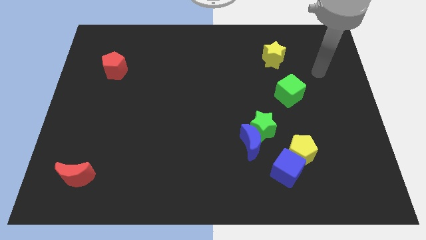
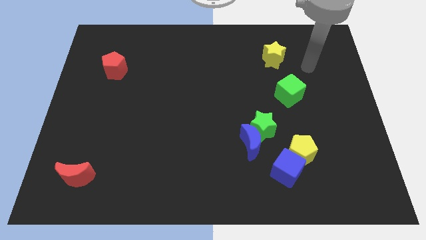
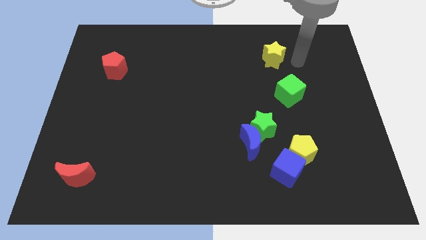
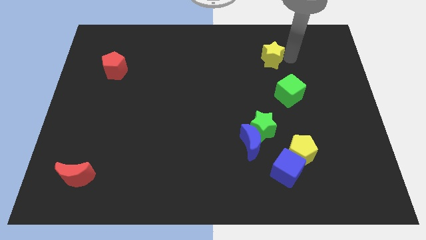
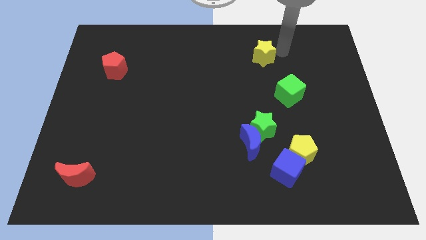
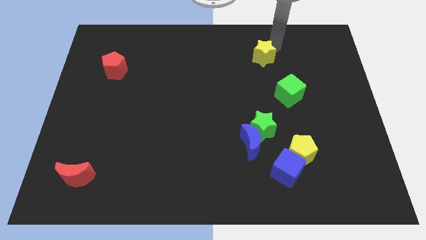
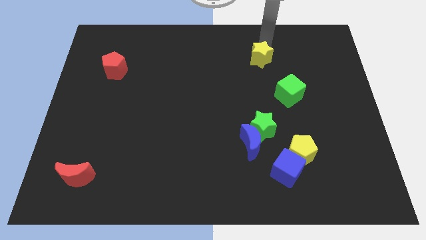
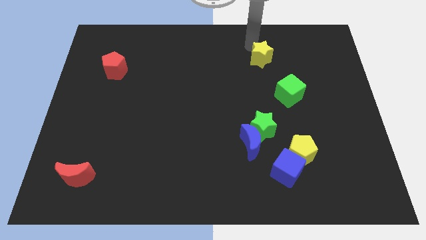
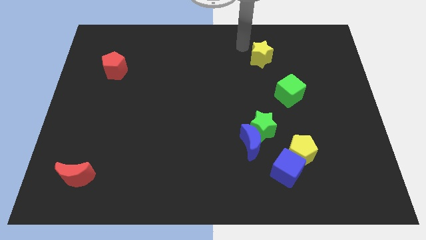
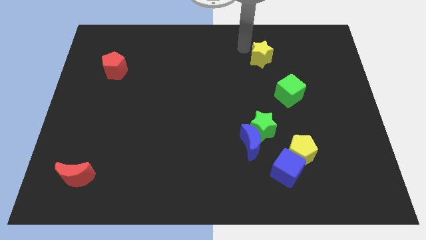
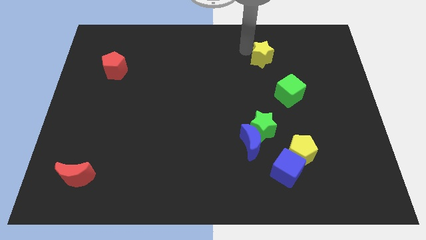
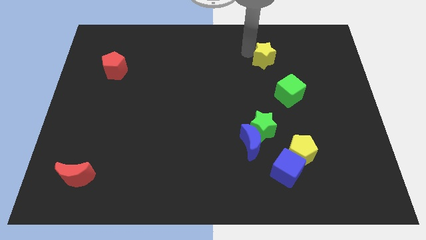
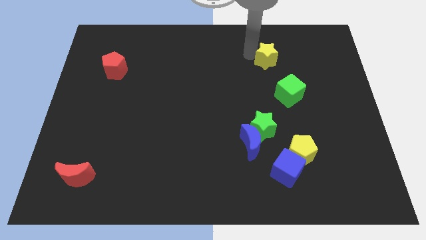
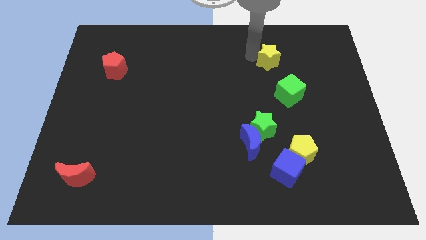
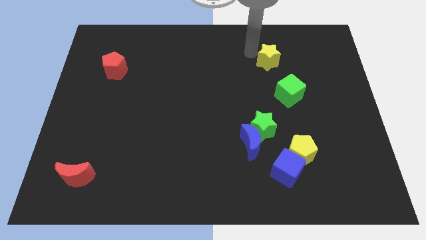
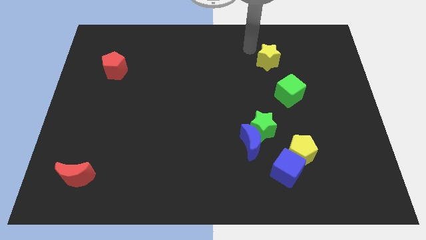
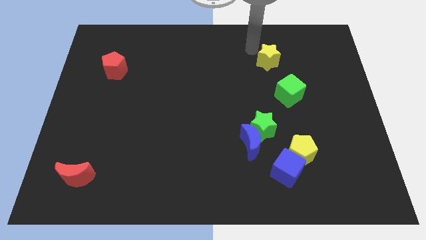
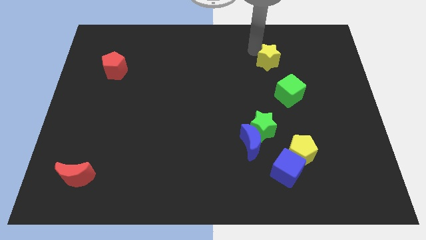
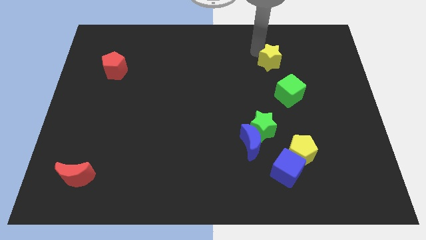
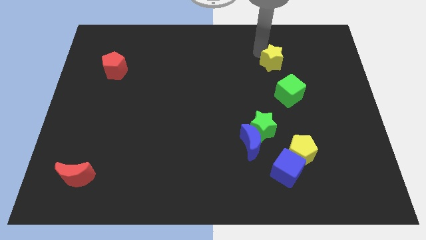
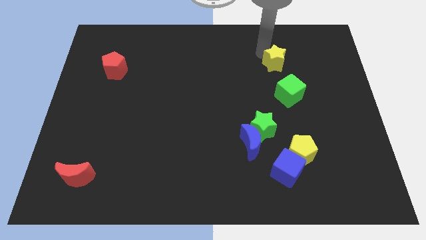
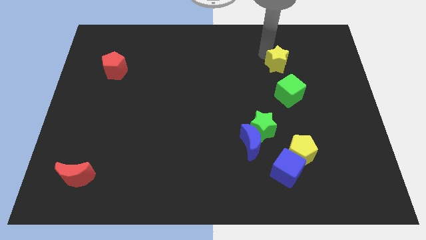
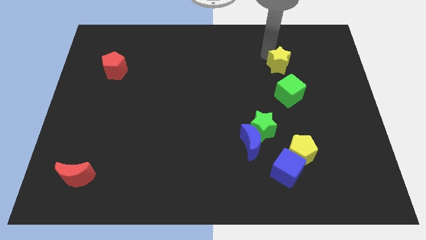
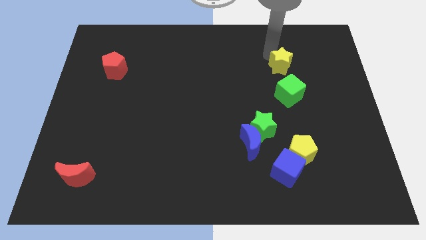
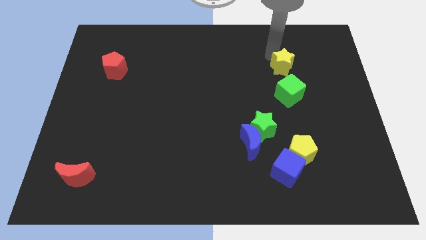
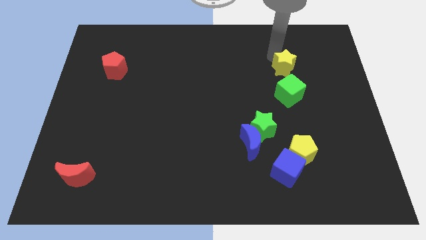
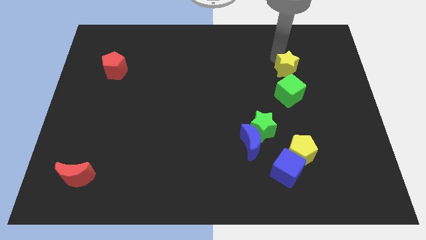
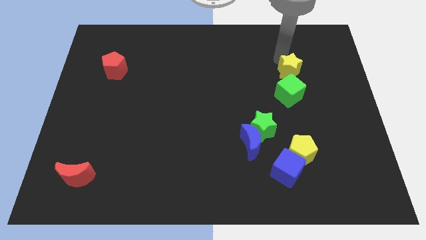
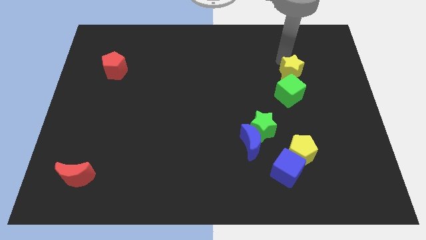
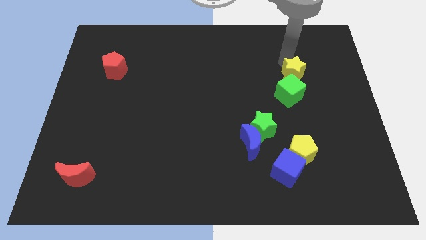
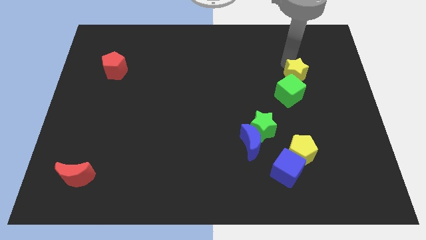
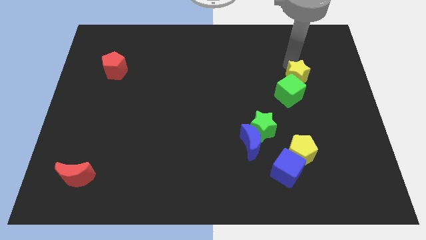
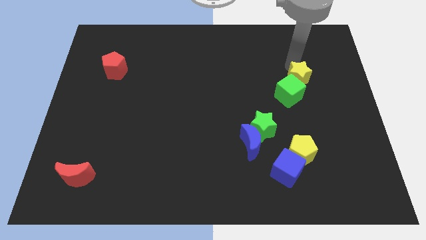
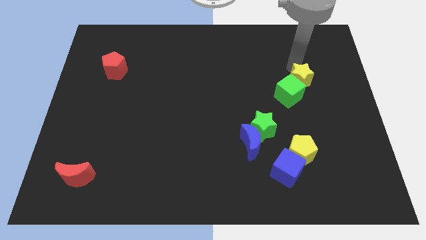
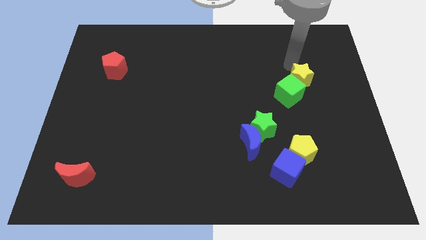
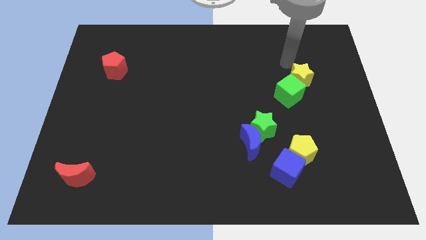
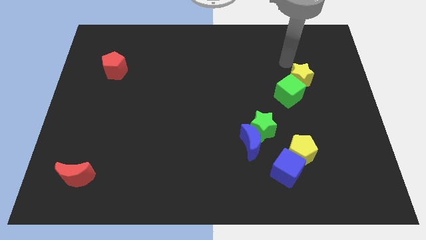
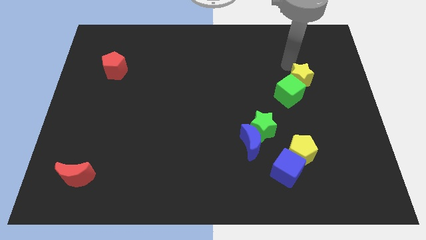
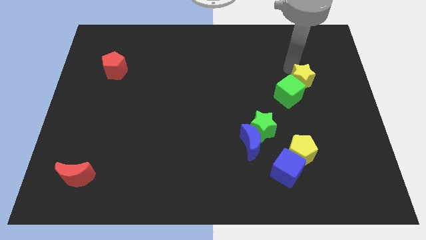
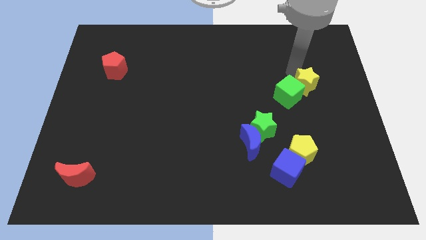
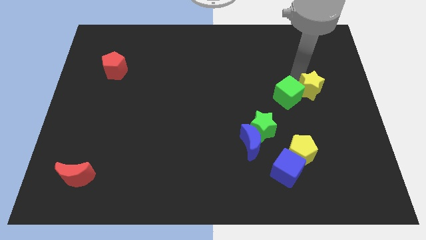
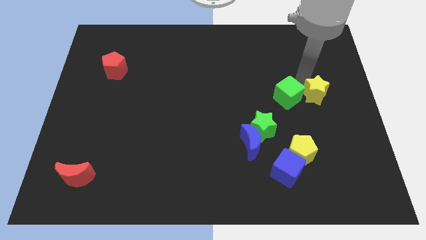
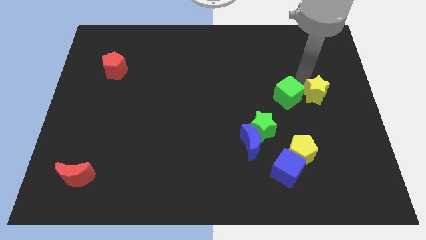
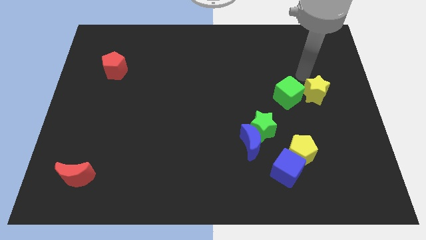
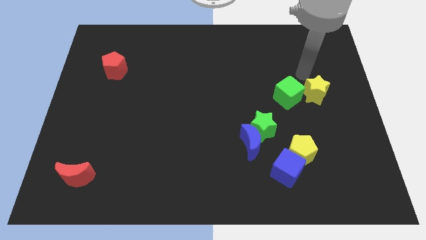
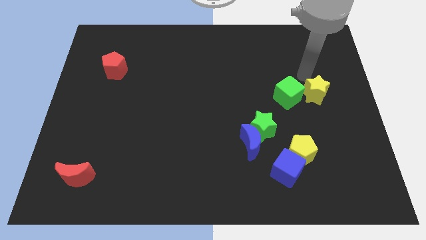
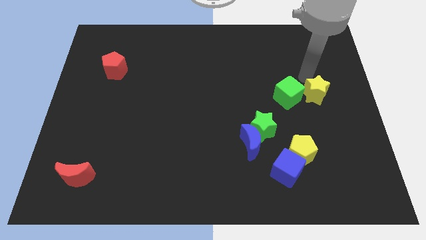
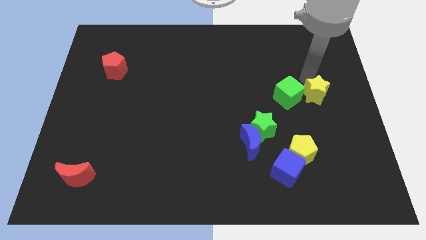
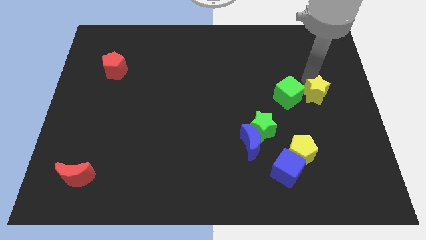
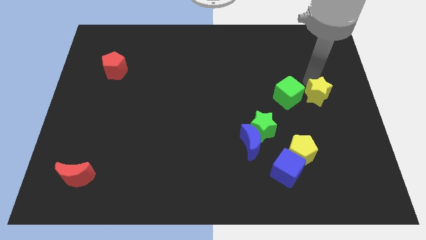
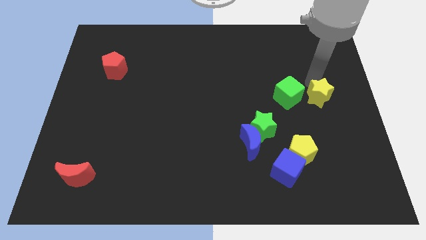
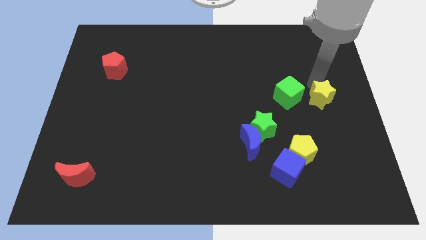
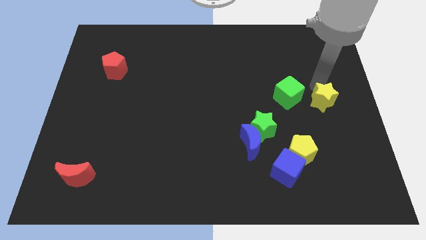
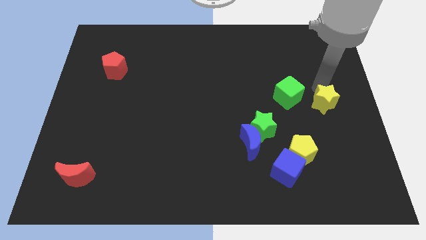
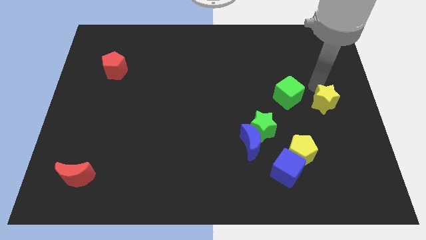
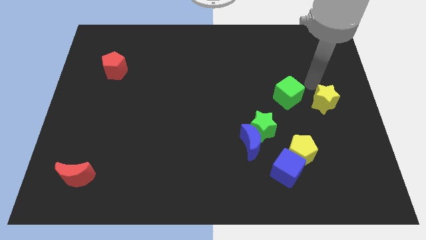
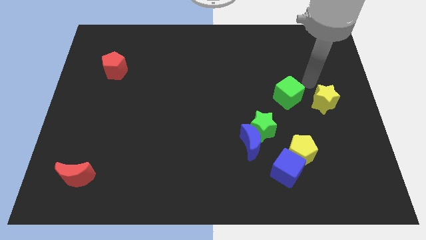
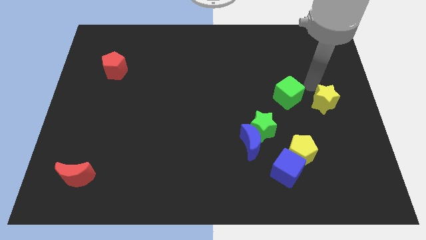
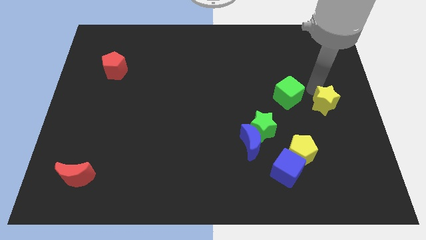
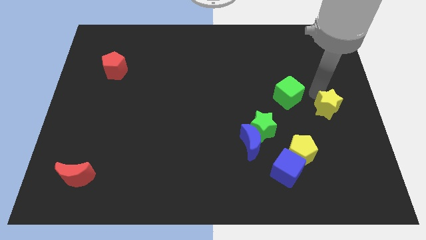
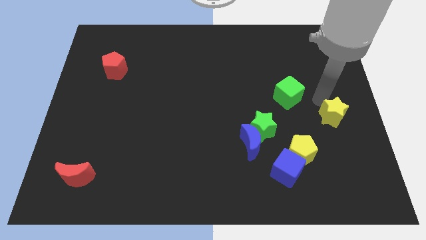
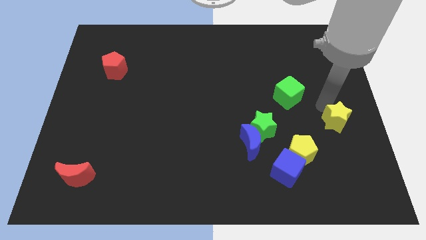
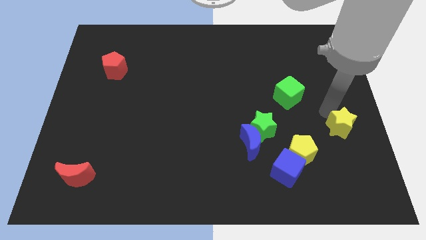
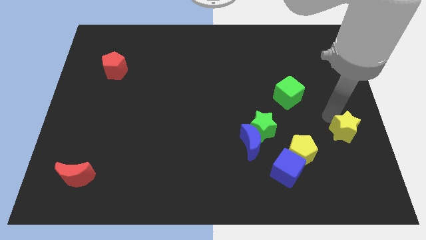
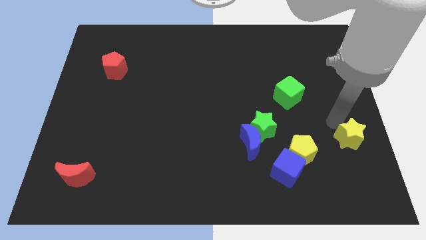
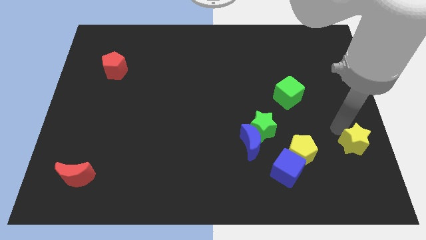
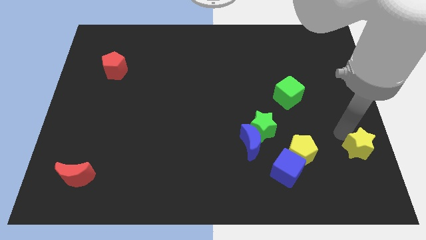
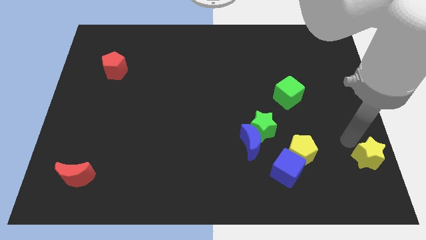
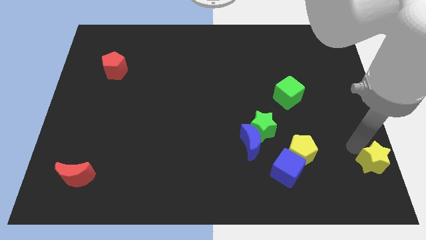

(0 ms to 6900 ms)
put the yellow star to the bottom right corner
